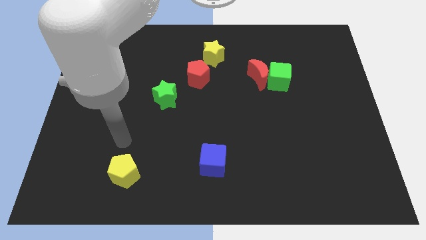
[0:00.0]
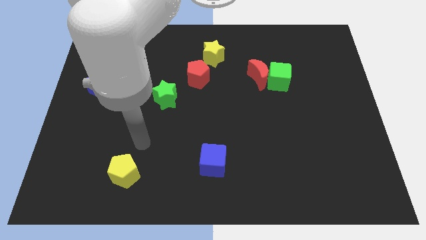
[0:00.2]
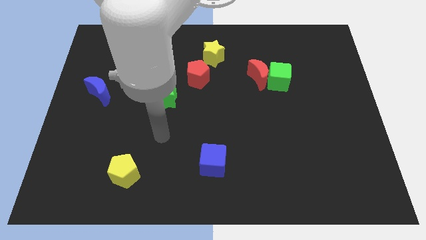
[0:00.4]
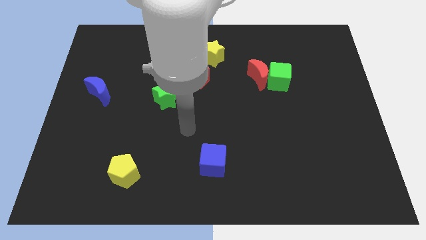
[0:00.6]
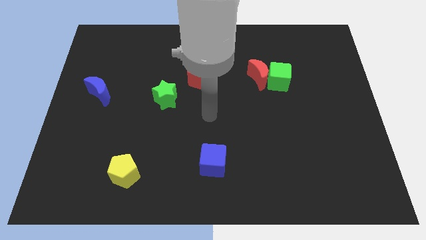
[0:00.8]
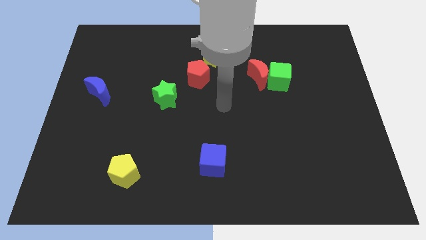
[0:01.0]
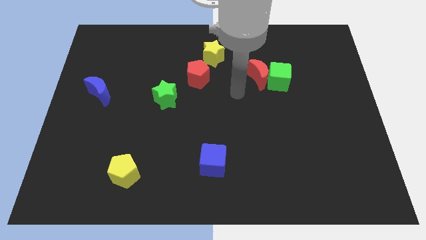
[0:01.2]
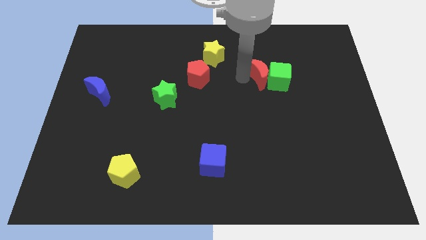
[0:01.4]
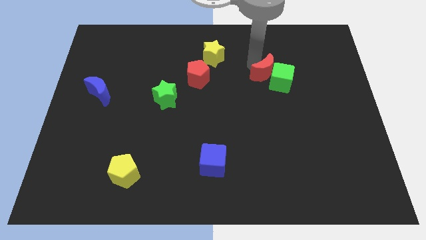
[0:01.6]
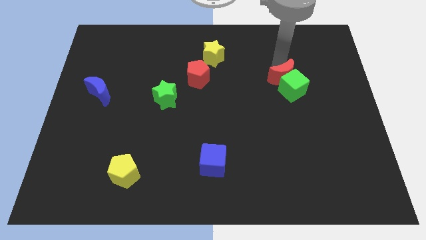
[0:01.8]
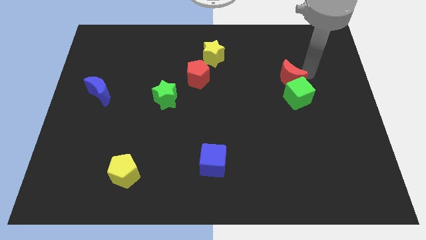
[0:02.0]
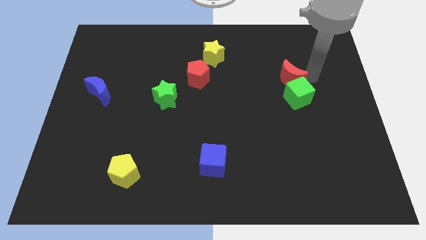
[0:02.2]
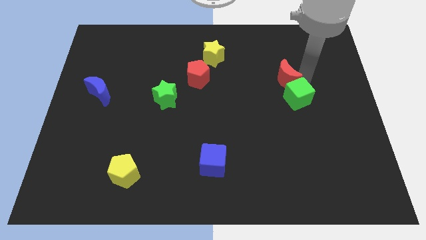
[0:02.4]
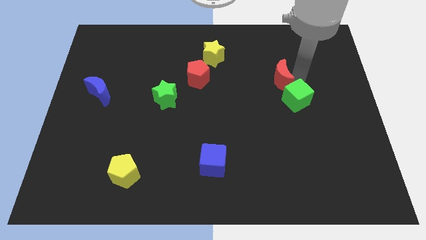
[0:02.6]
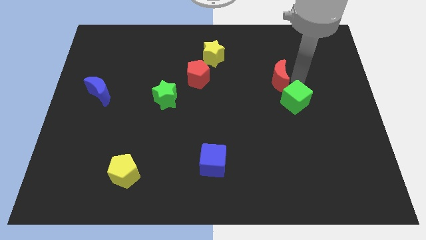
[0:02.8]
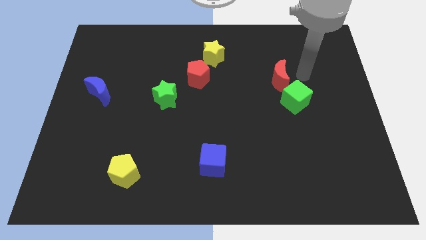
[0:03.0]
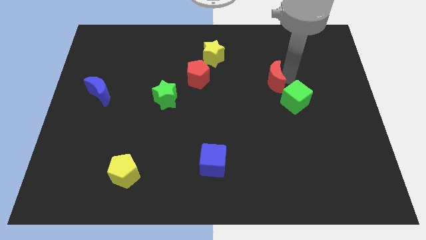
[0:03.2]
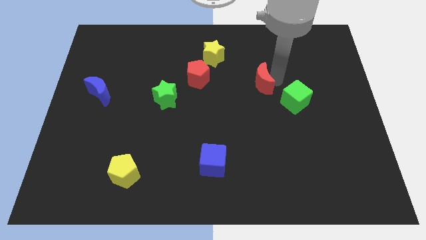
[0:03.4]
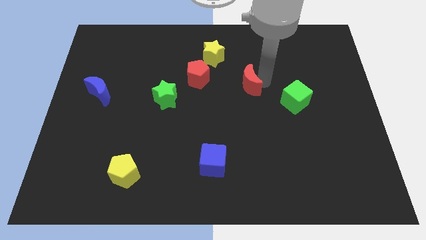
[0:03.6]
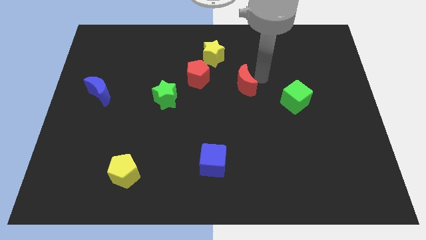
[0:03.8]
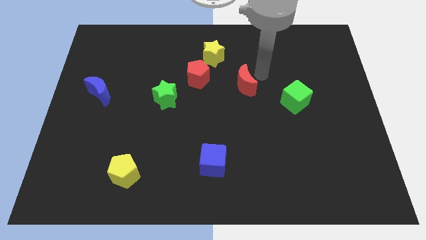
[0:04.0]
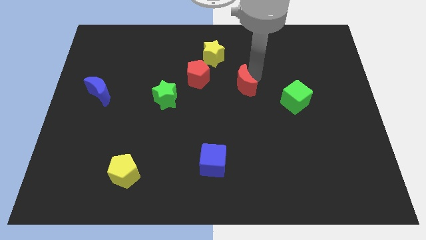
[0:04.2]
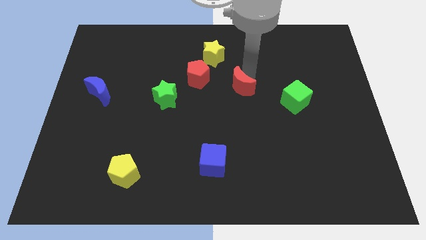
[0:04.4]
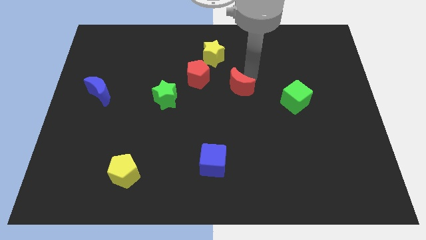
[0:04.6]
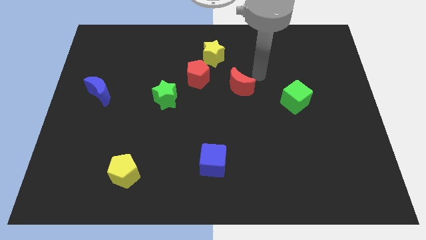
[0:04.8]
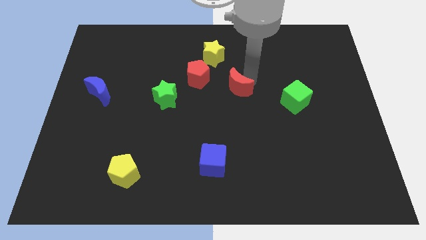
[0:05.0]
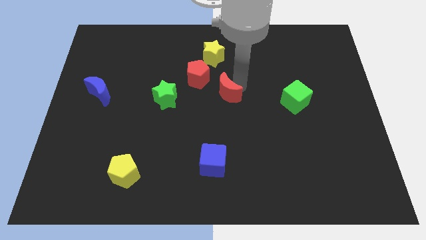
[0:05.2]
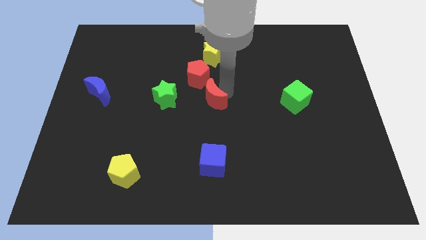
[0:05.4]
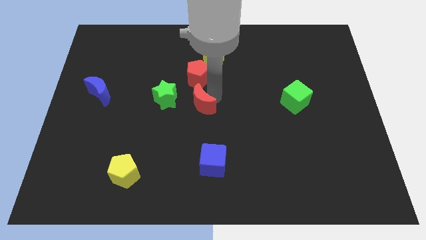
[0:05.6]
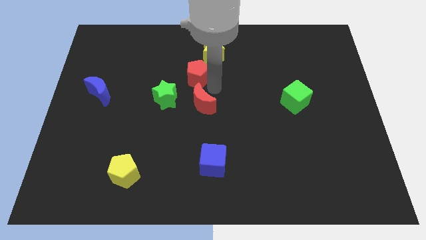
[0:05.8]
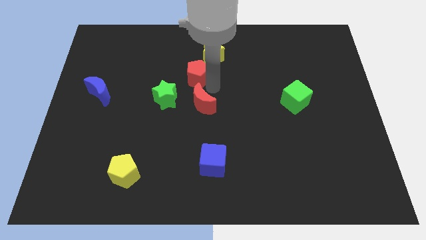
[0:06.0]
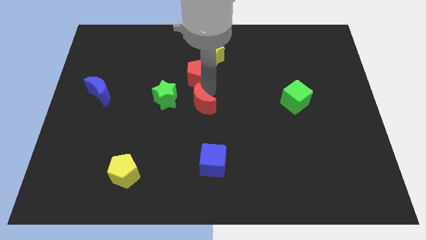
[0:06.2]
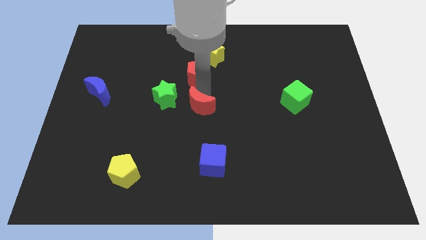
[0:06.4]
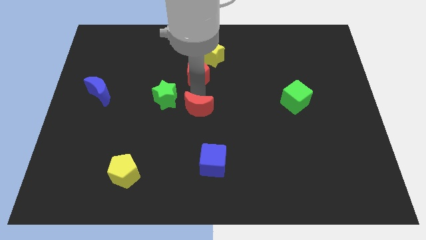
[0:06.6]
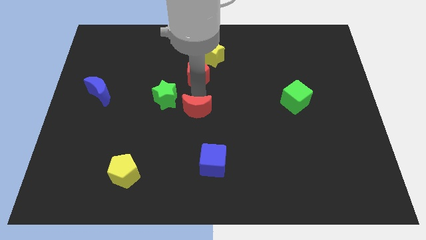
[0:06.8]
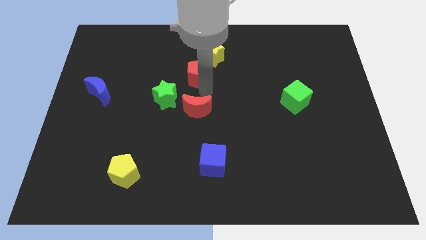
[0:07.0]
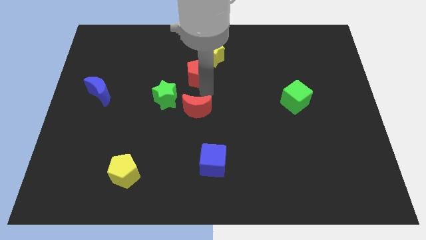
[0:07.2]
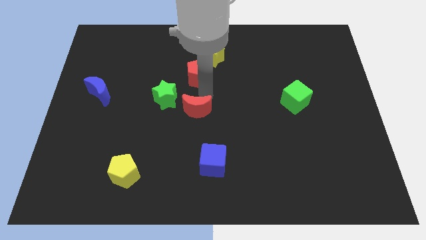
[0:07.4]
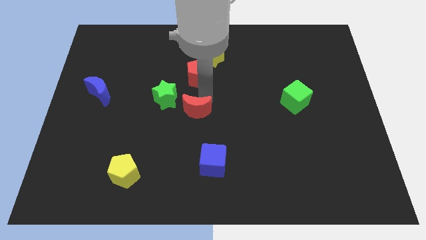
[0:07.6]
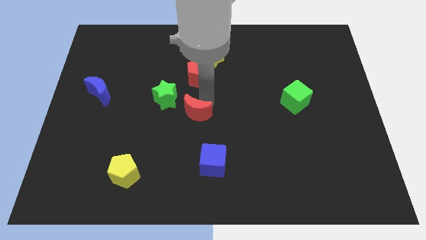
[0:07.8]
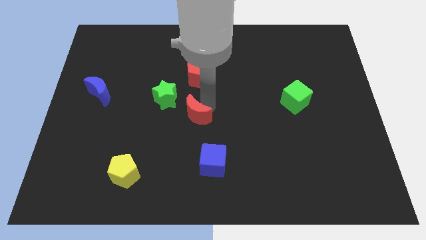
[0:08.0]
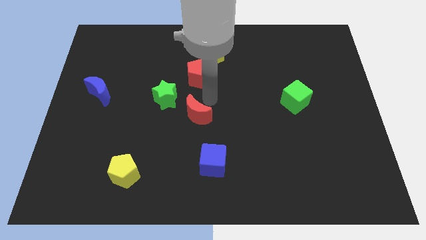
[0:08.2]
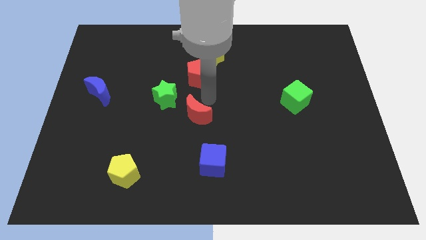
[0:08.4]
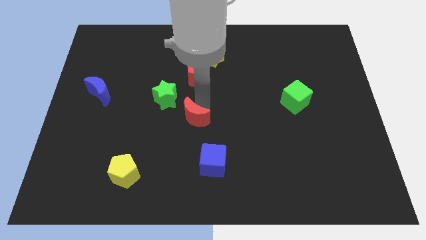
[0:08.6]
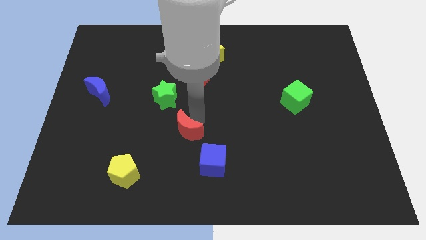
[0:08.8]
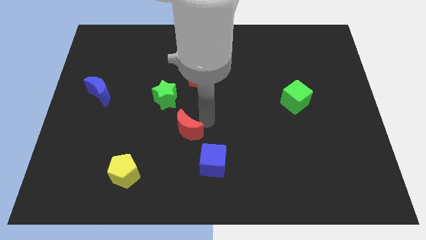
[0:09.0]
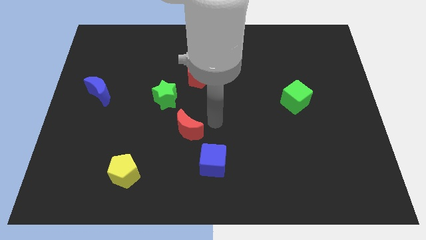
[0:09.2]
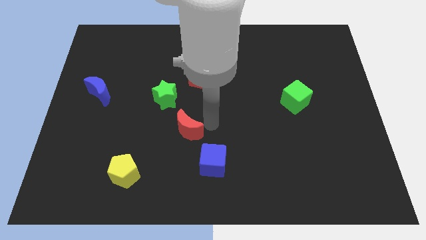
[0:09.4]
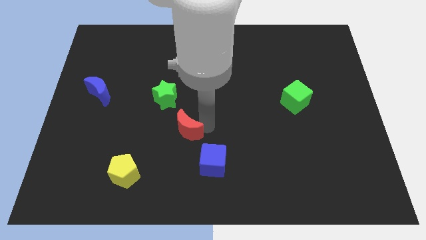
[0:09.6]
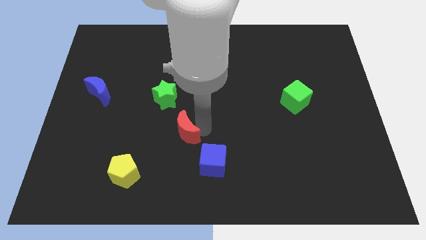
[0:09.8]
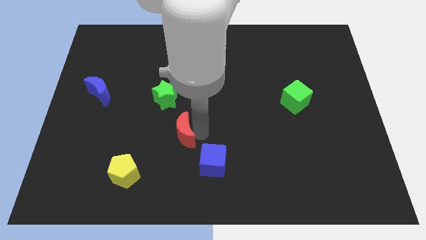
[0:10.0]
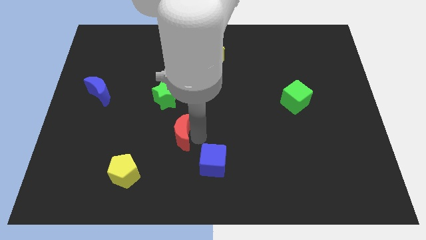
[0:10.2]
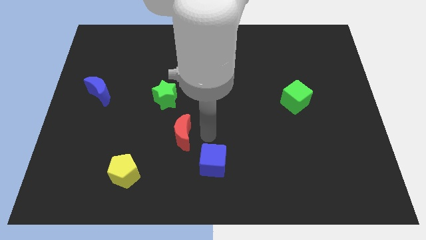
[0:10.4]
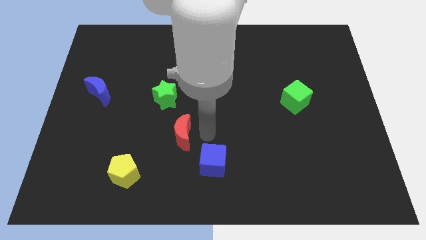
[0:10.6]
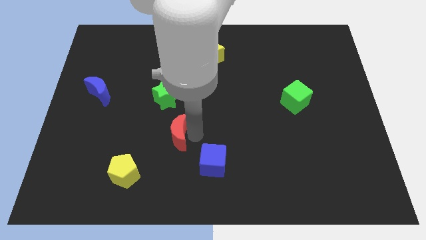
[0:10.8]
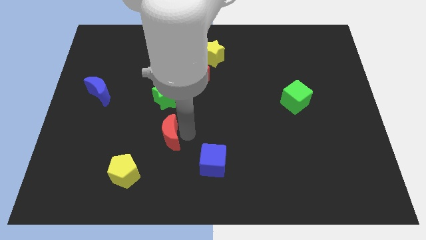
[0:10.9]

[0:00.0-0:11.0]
move the red moon to the top right of the yellow pentagon

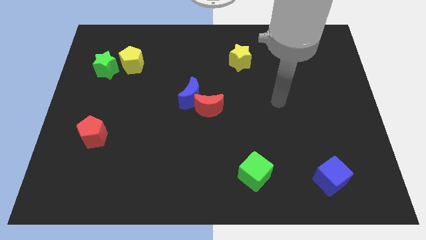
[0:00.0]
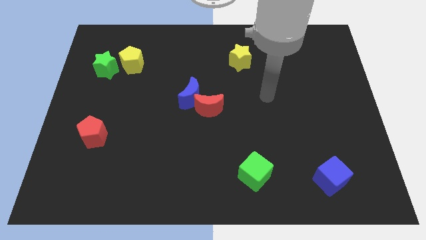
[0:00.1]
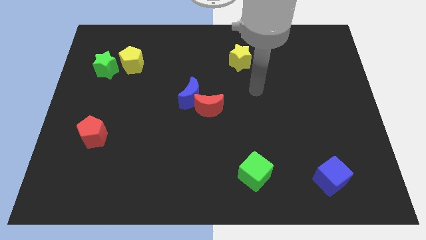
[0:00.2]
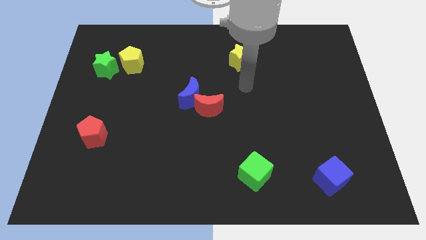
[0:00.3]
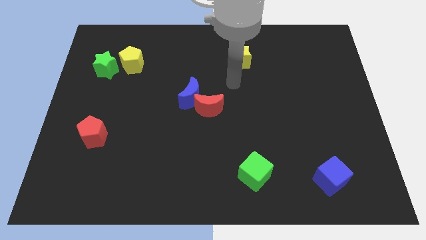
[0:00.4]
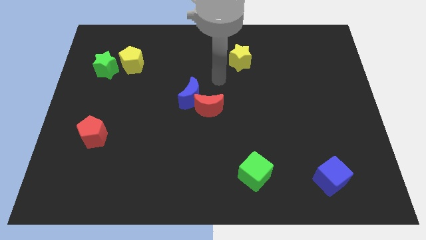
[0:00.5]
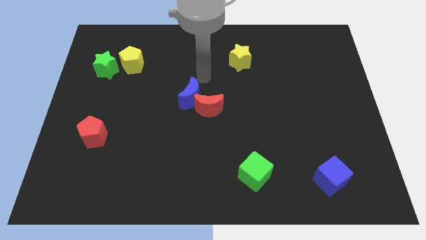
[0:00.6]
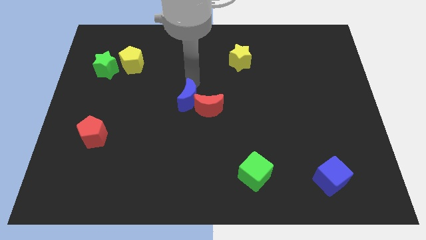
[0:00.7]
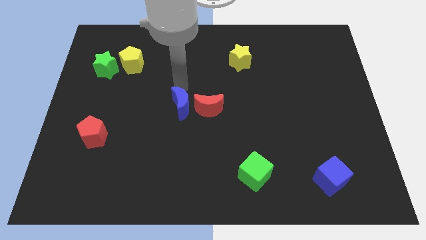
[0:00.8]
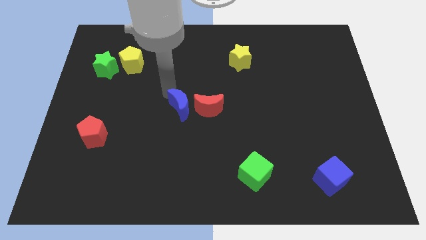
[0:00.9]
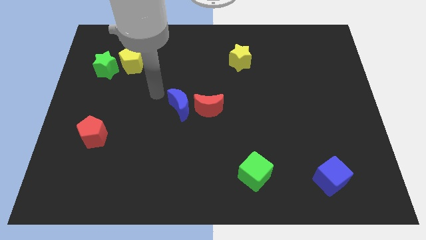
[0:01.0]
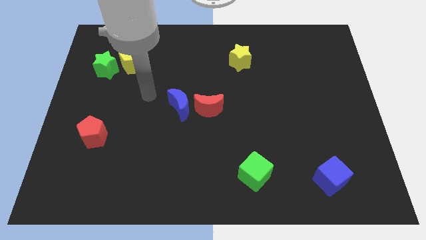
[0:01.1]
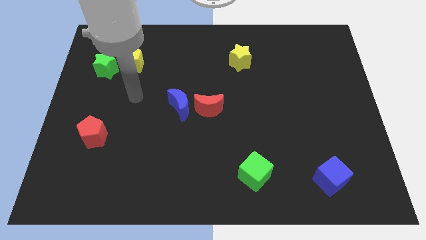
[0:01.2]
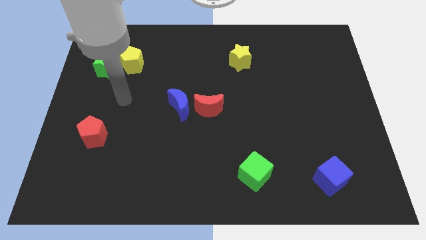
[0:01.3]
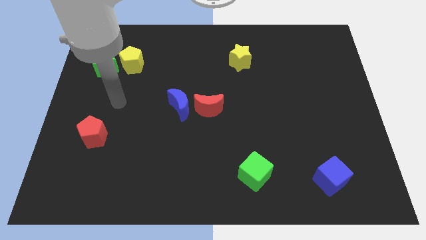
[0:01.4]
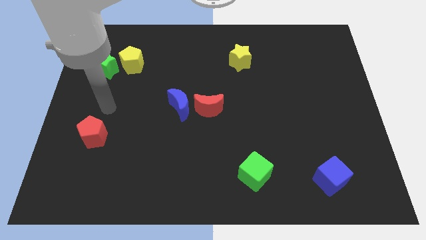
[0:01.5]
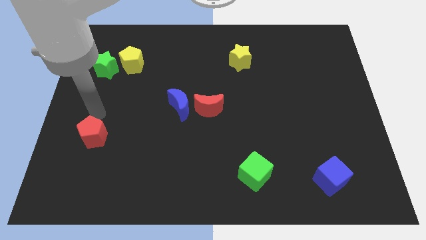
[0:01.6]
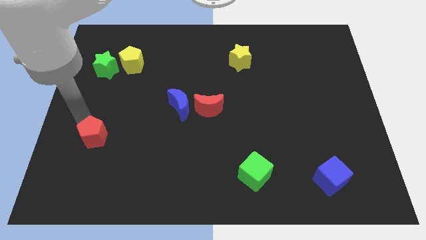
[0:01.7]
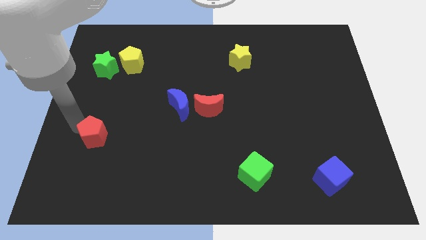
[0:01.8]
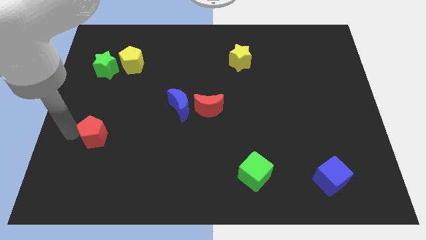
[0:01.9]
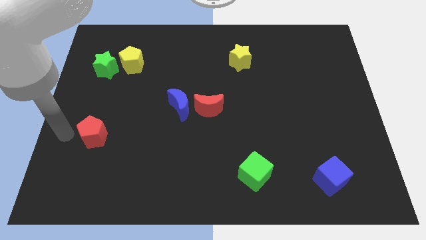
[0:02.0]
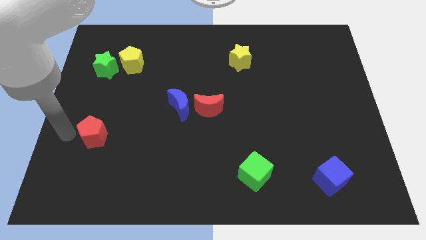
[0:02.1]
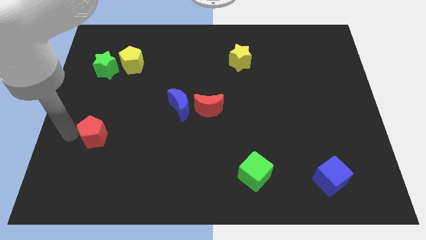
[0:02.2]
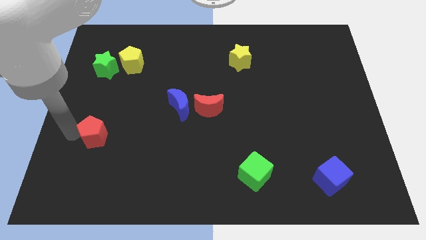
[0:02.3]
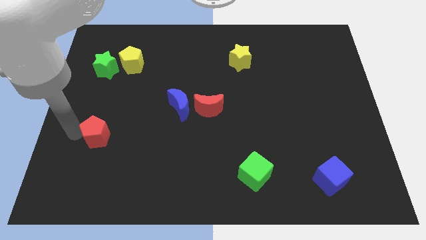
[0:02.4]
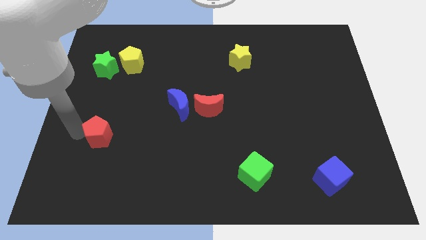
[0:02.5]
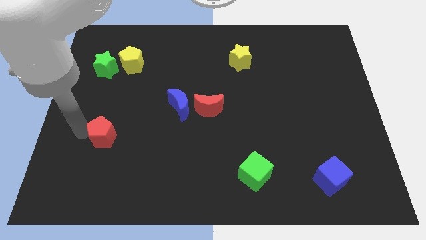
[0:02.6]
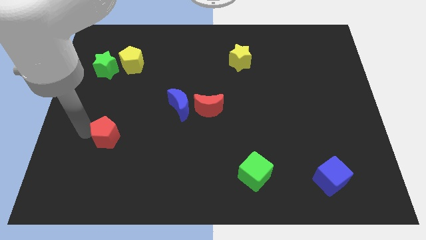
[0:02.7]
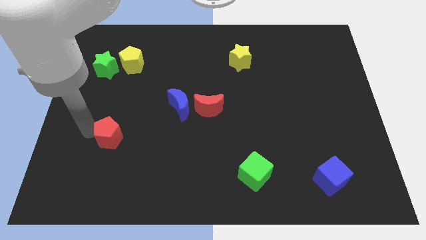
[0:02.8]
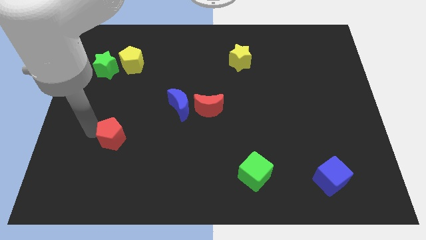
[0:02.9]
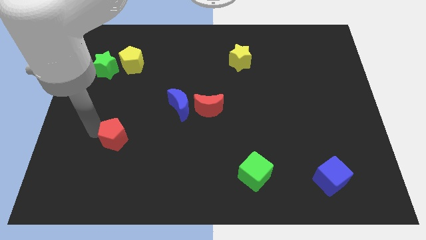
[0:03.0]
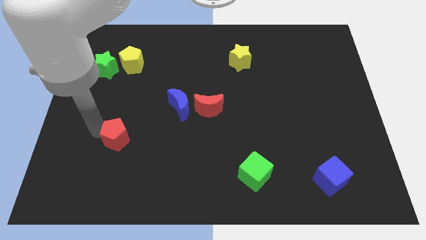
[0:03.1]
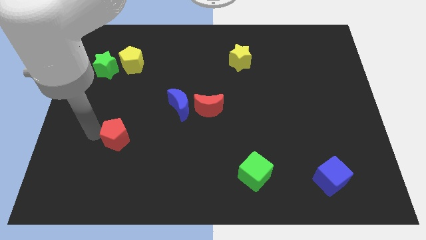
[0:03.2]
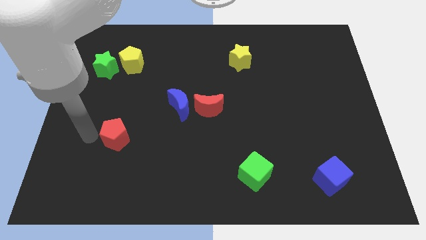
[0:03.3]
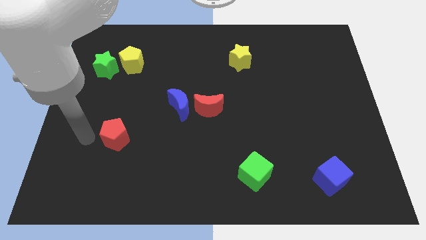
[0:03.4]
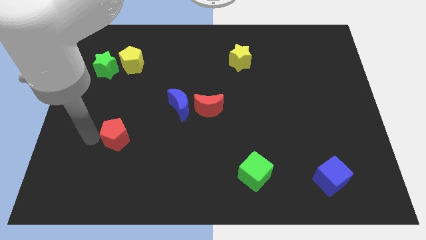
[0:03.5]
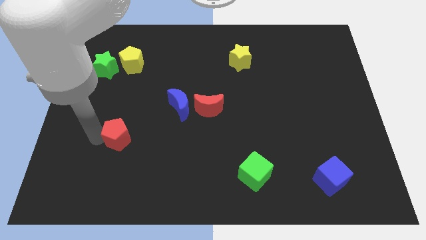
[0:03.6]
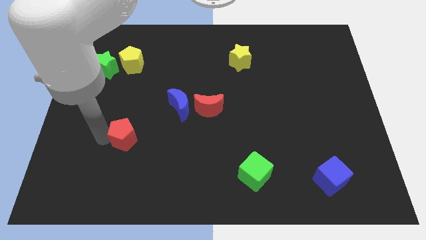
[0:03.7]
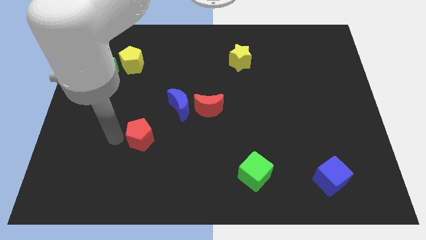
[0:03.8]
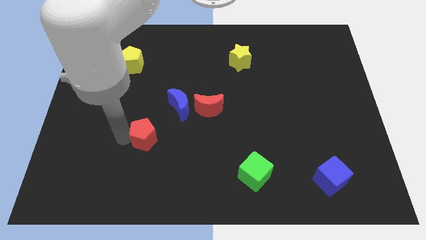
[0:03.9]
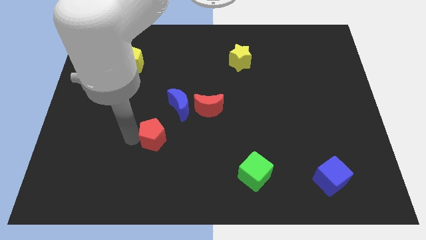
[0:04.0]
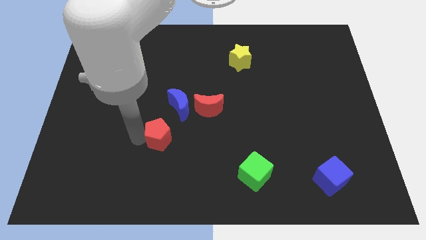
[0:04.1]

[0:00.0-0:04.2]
slide the red pentagon below the blue moon
